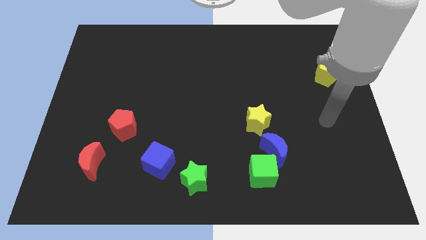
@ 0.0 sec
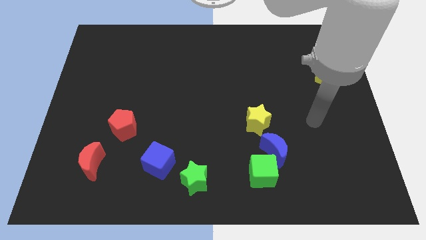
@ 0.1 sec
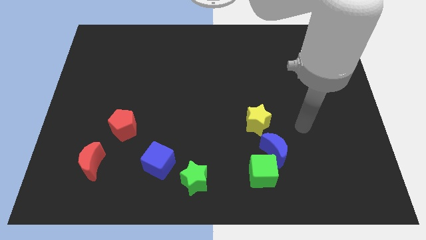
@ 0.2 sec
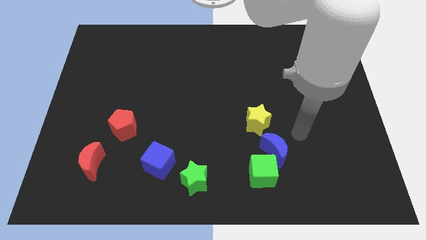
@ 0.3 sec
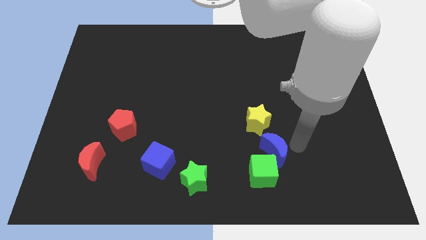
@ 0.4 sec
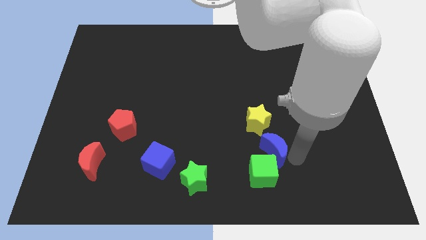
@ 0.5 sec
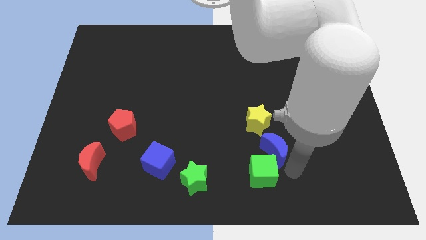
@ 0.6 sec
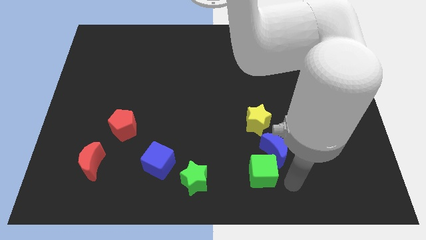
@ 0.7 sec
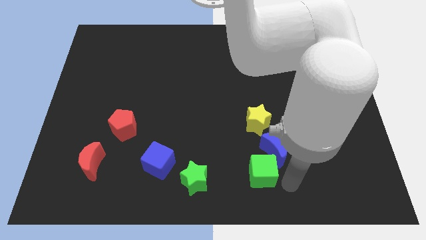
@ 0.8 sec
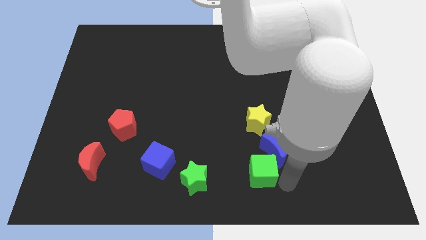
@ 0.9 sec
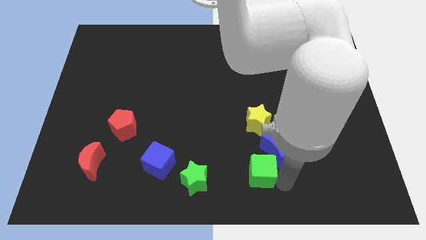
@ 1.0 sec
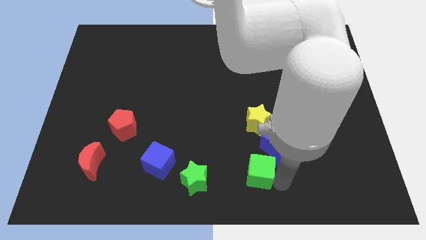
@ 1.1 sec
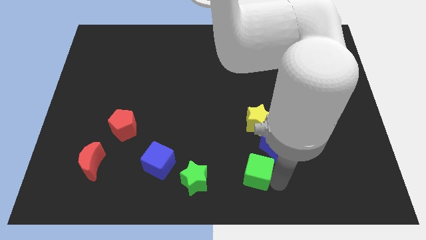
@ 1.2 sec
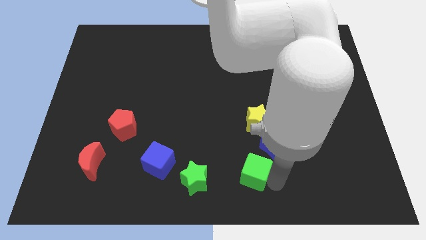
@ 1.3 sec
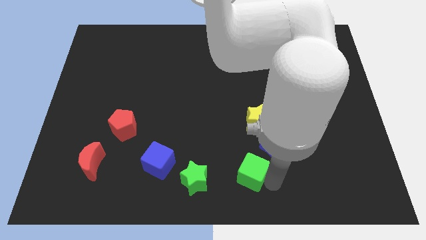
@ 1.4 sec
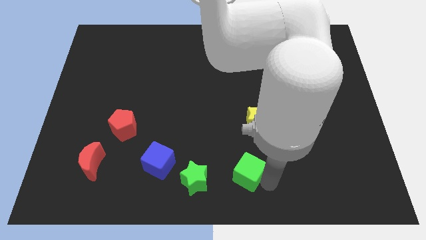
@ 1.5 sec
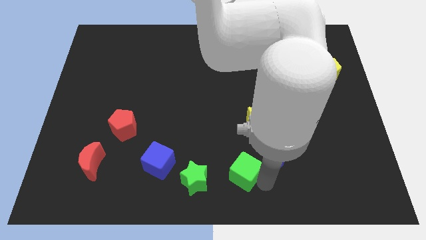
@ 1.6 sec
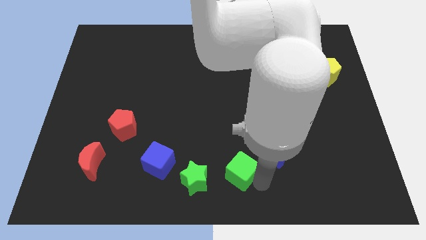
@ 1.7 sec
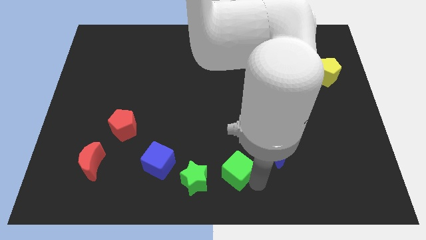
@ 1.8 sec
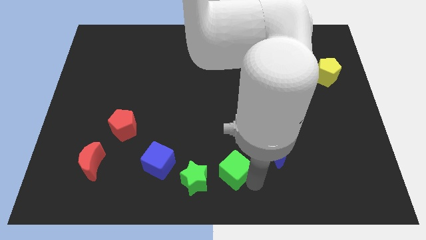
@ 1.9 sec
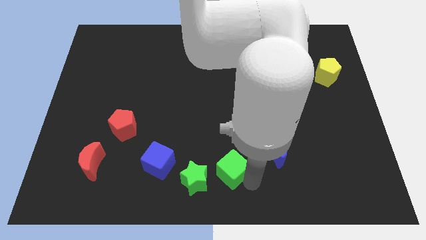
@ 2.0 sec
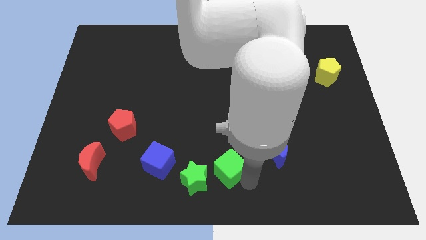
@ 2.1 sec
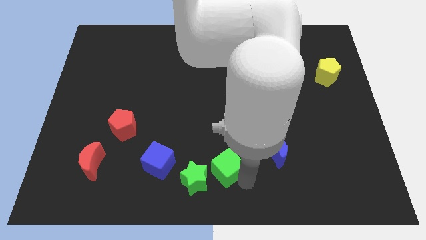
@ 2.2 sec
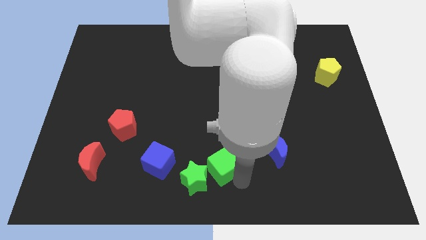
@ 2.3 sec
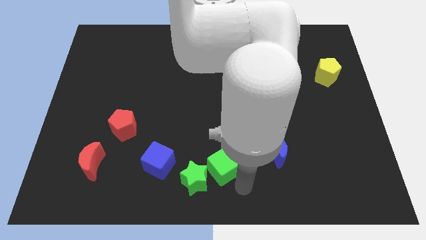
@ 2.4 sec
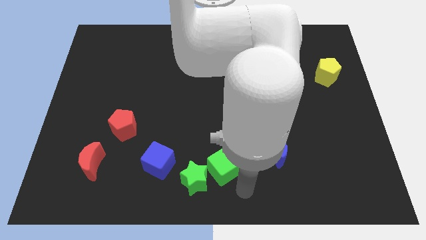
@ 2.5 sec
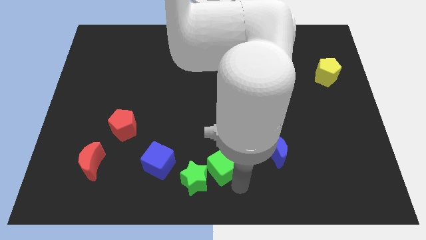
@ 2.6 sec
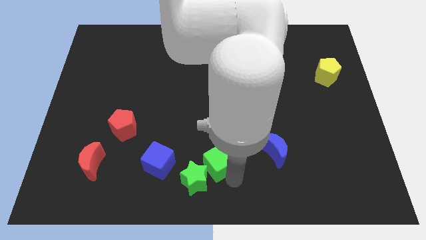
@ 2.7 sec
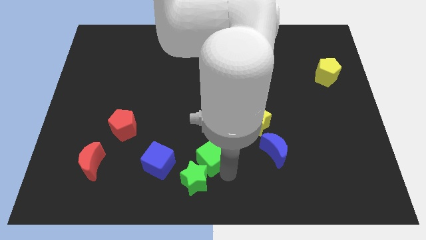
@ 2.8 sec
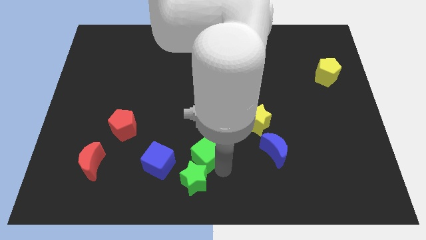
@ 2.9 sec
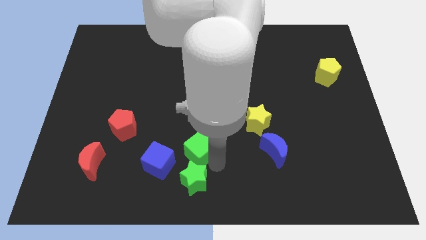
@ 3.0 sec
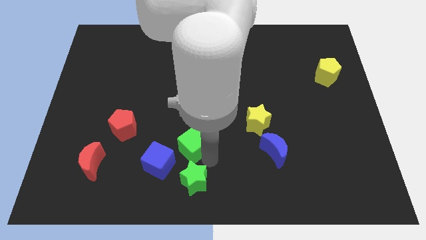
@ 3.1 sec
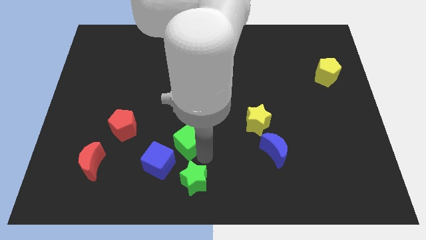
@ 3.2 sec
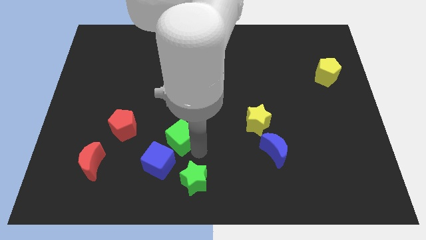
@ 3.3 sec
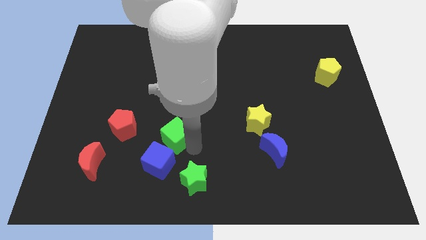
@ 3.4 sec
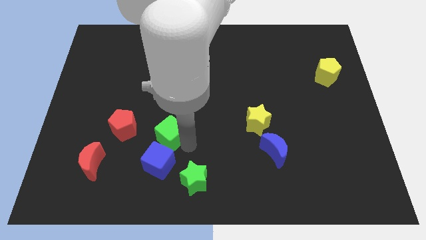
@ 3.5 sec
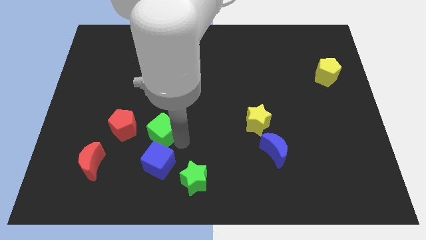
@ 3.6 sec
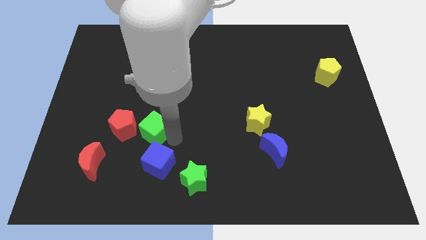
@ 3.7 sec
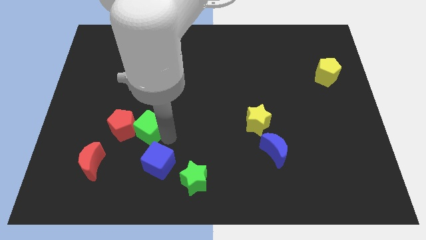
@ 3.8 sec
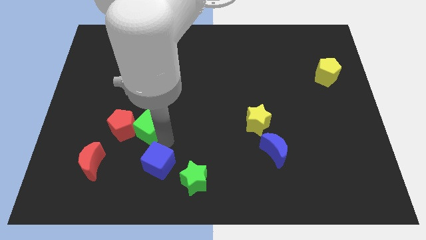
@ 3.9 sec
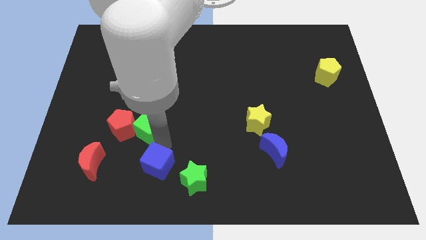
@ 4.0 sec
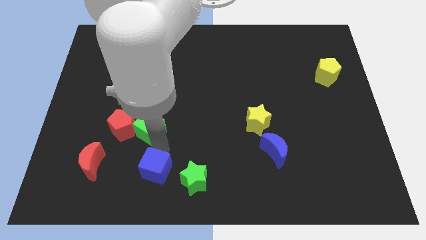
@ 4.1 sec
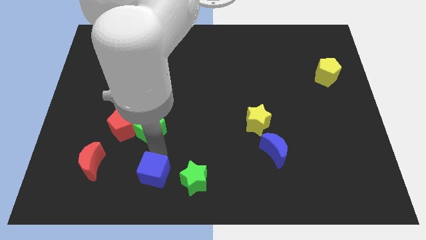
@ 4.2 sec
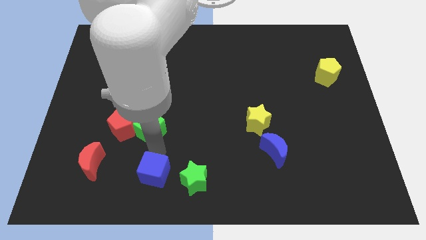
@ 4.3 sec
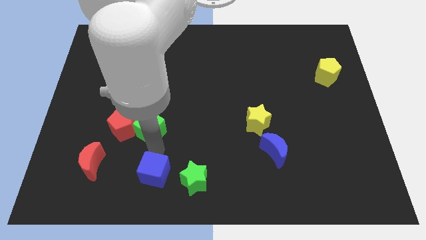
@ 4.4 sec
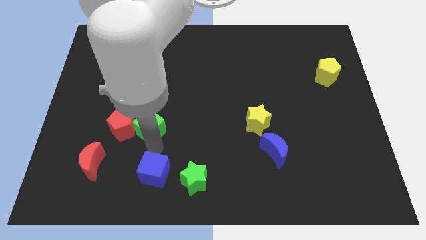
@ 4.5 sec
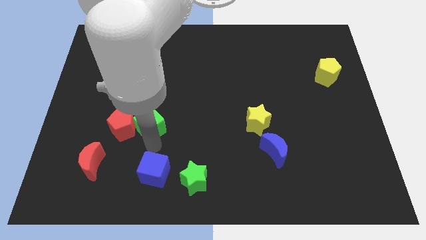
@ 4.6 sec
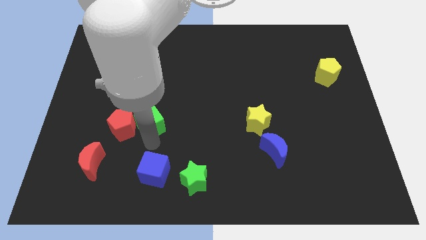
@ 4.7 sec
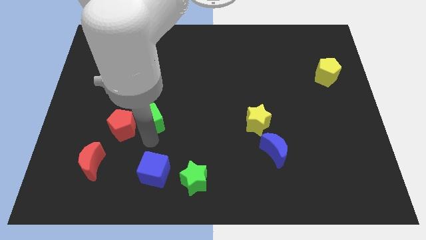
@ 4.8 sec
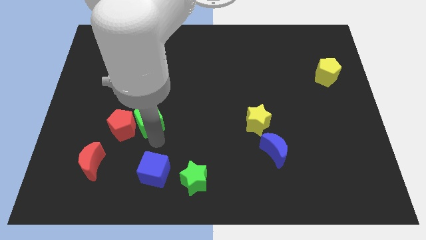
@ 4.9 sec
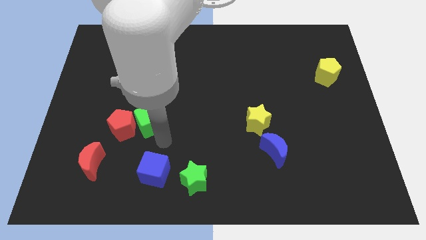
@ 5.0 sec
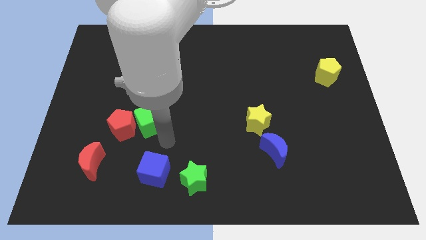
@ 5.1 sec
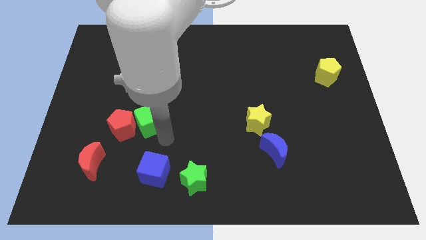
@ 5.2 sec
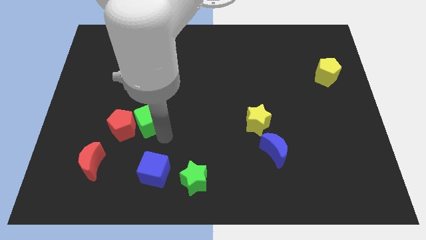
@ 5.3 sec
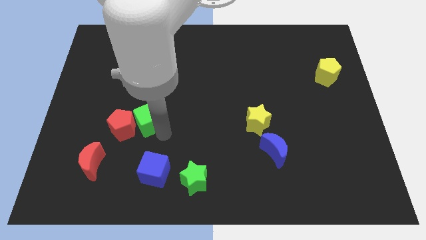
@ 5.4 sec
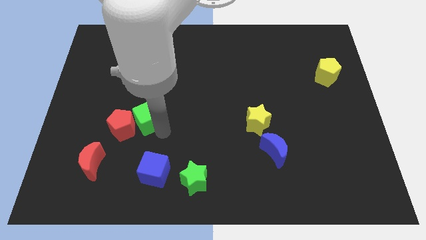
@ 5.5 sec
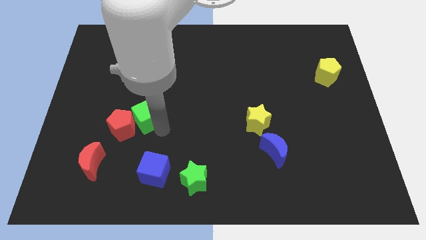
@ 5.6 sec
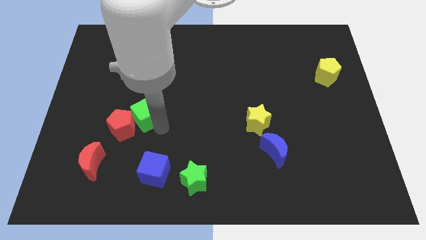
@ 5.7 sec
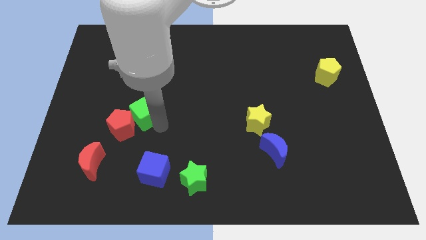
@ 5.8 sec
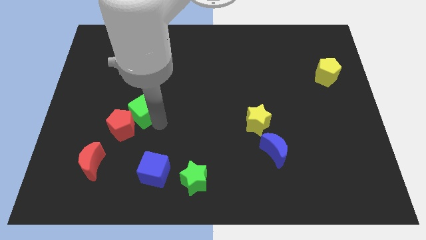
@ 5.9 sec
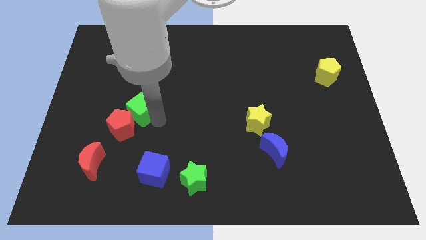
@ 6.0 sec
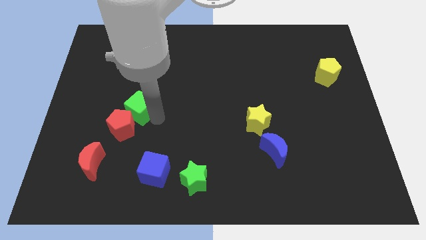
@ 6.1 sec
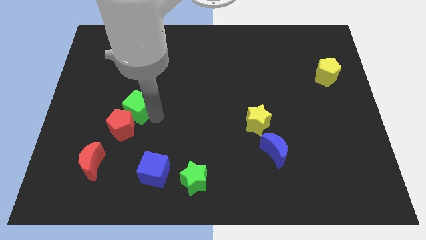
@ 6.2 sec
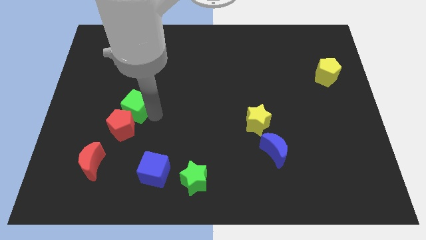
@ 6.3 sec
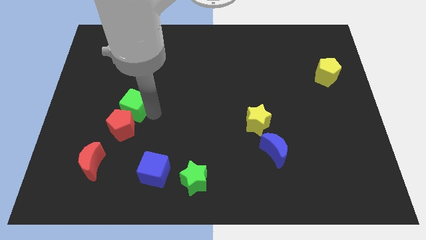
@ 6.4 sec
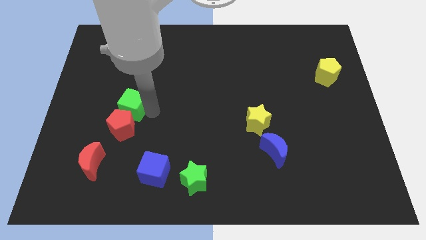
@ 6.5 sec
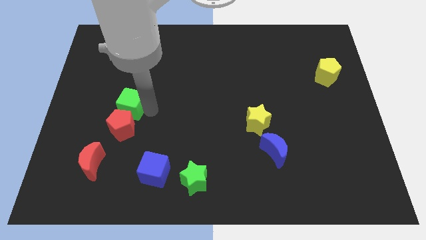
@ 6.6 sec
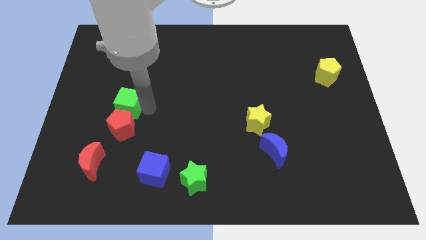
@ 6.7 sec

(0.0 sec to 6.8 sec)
push the green cube diagonally up and to the left of the red pentagon
